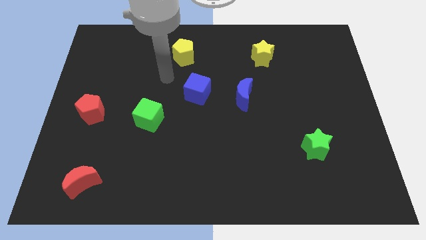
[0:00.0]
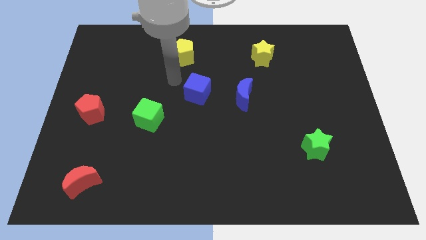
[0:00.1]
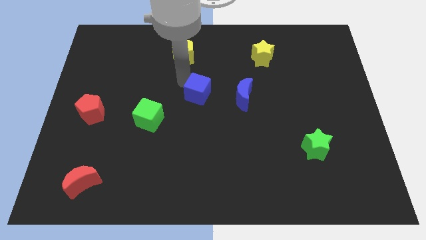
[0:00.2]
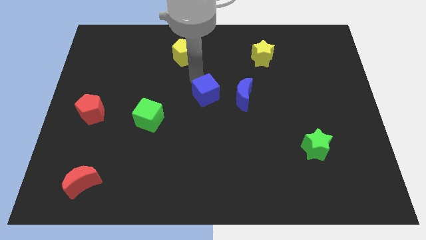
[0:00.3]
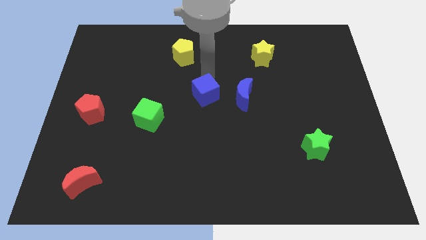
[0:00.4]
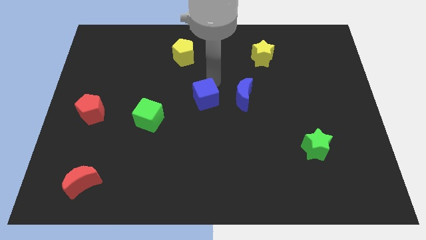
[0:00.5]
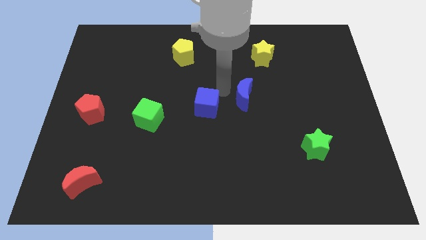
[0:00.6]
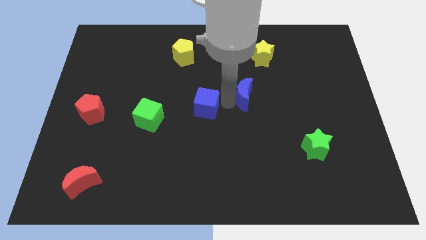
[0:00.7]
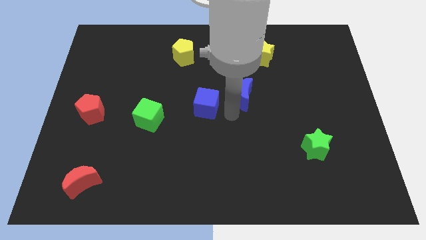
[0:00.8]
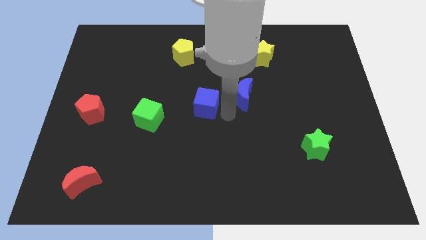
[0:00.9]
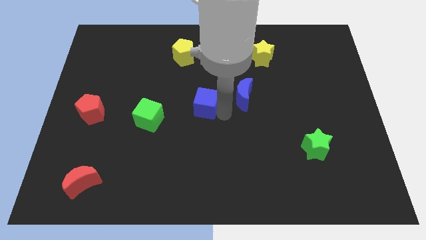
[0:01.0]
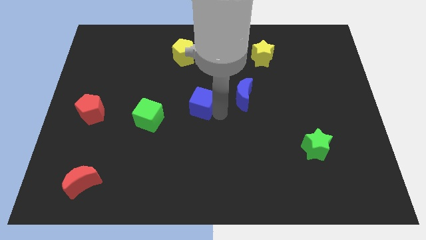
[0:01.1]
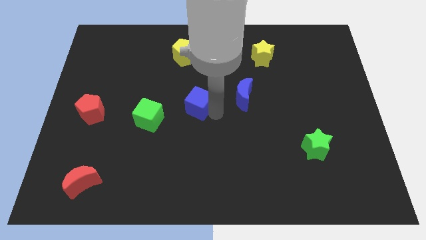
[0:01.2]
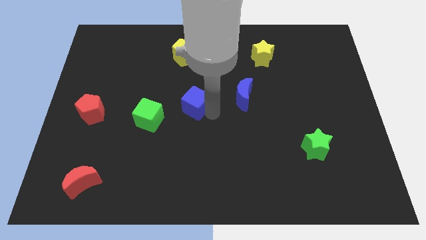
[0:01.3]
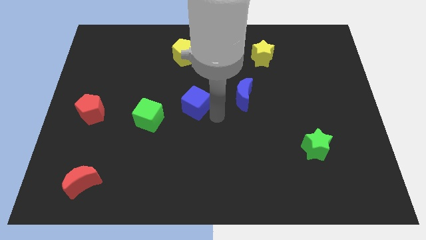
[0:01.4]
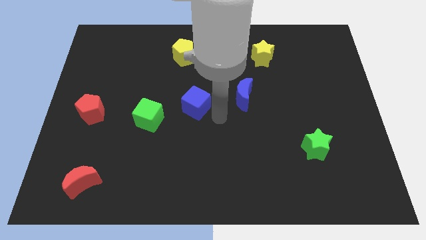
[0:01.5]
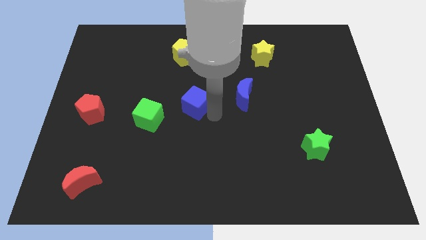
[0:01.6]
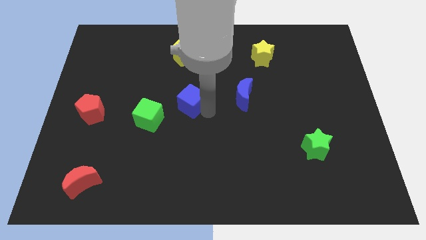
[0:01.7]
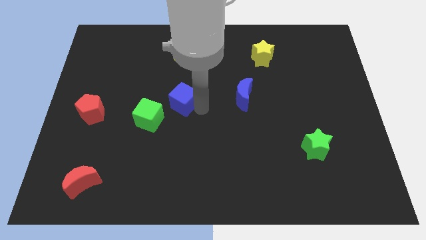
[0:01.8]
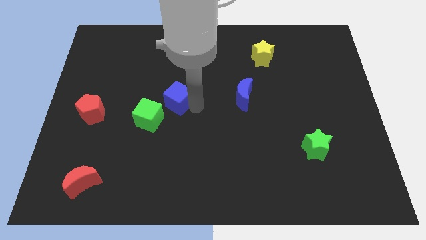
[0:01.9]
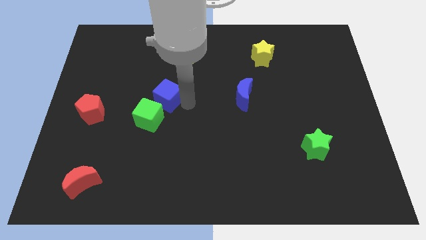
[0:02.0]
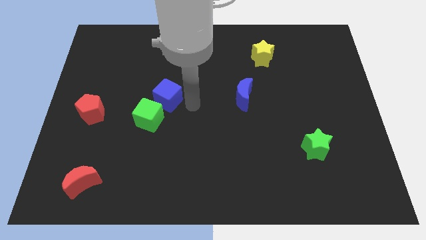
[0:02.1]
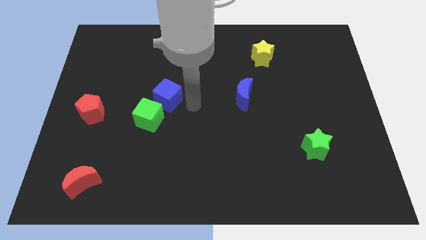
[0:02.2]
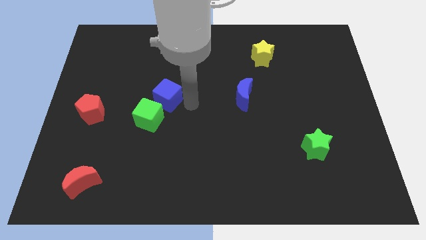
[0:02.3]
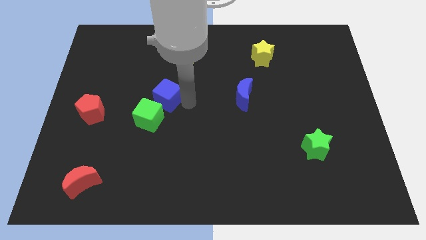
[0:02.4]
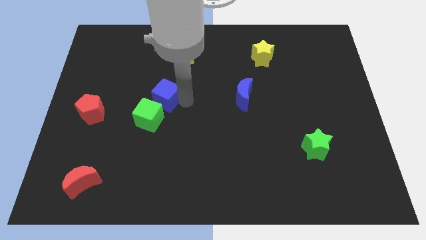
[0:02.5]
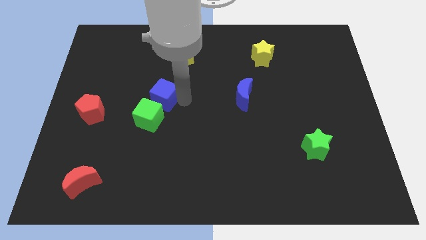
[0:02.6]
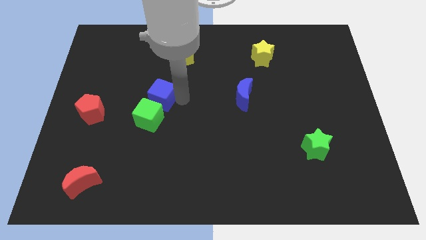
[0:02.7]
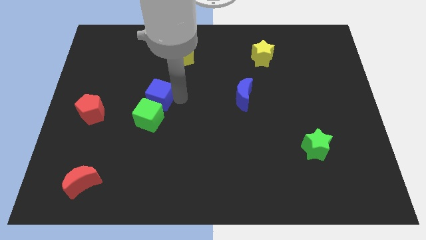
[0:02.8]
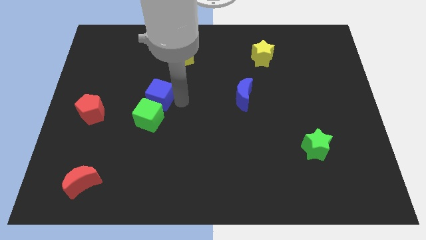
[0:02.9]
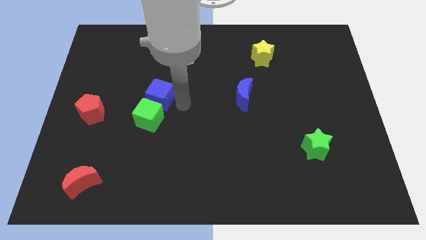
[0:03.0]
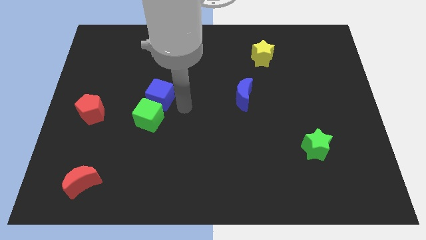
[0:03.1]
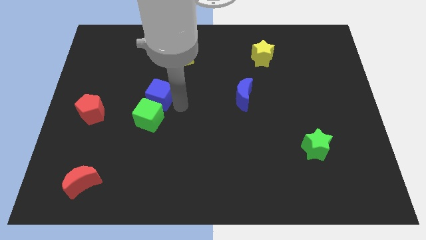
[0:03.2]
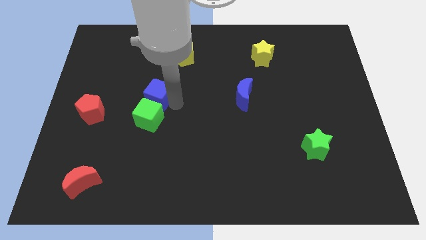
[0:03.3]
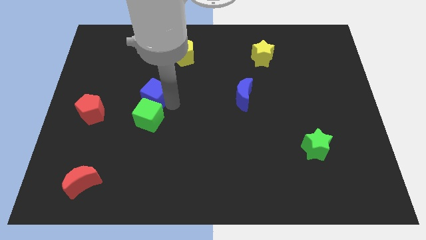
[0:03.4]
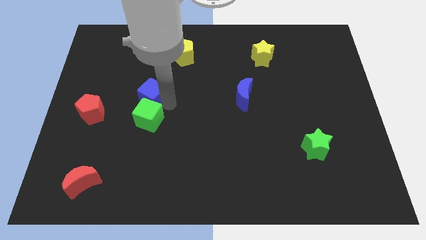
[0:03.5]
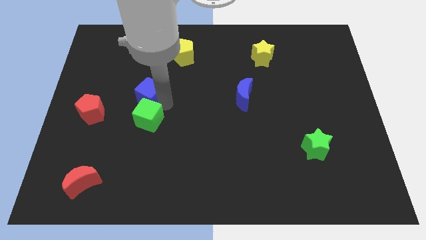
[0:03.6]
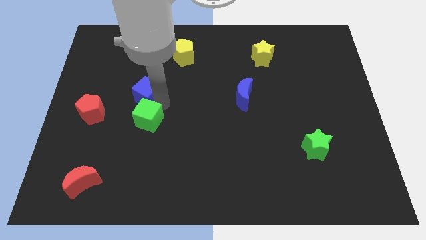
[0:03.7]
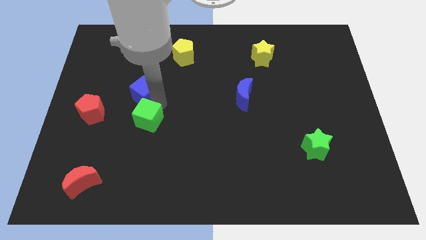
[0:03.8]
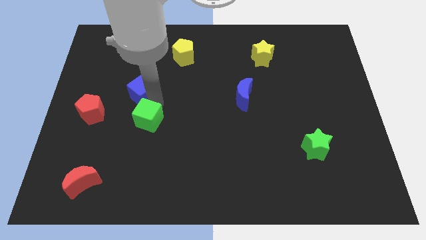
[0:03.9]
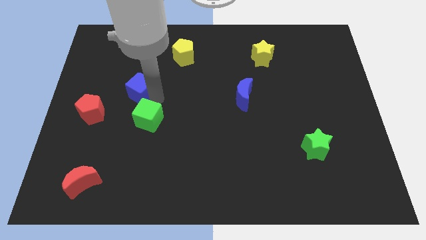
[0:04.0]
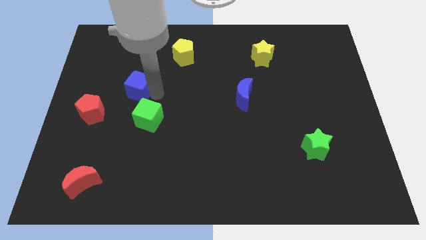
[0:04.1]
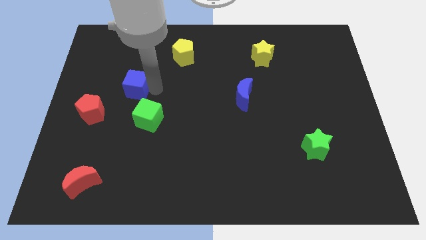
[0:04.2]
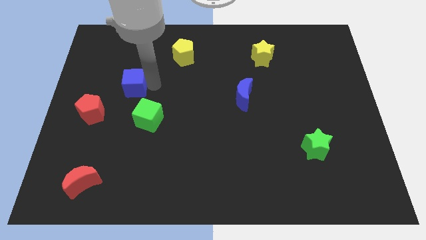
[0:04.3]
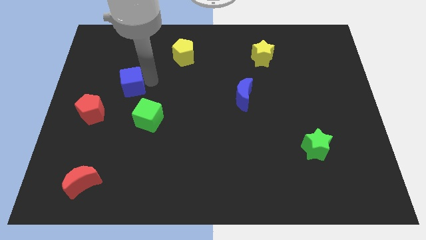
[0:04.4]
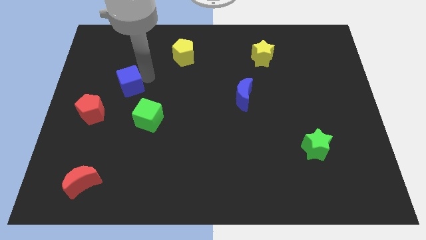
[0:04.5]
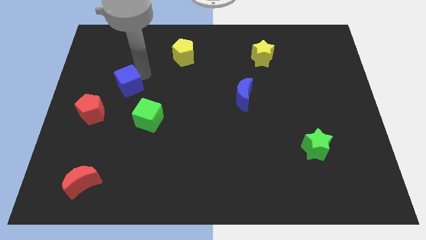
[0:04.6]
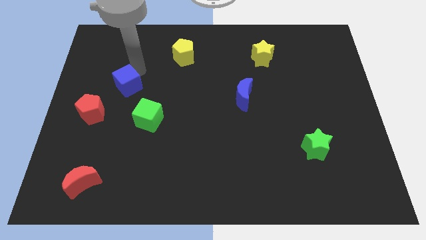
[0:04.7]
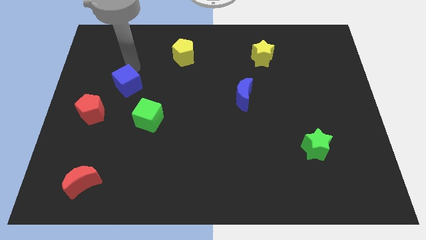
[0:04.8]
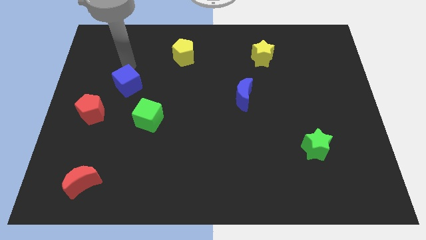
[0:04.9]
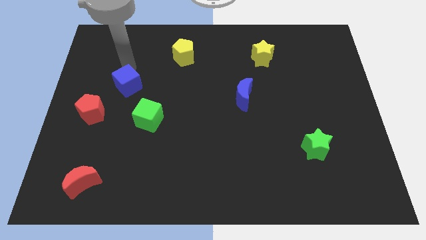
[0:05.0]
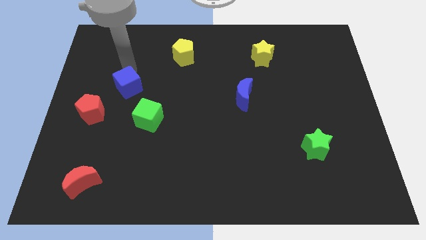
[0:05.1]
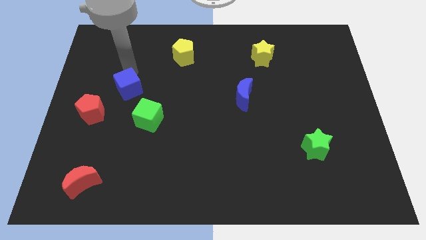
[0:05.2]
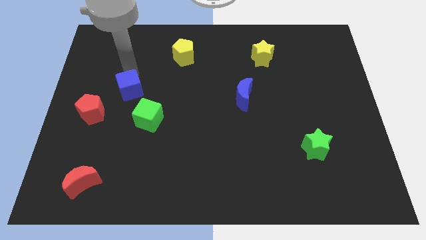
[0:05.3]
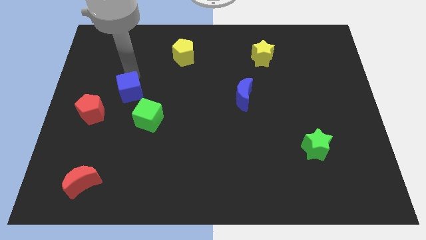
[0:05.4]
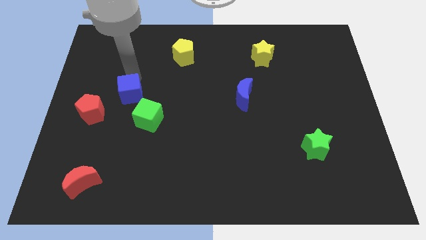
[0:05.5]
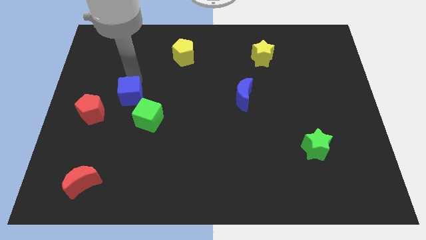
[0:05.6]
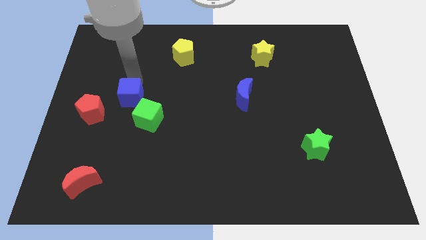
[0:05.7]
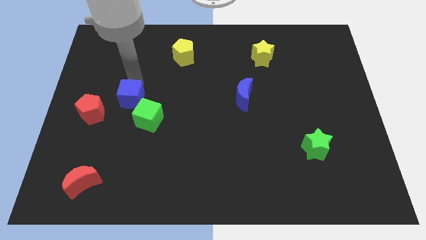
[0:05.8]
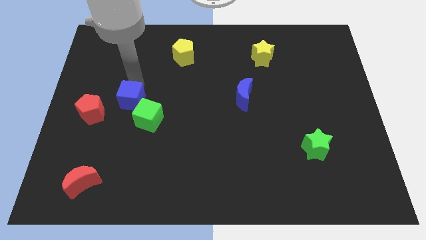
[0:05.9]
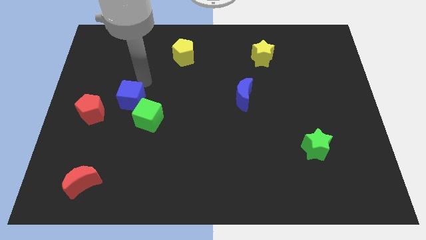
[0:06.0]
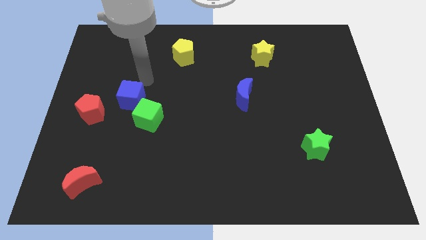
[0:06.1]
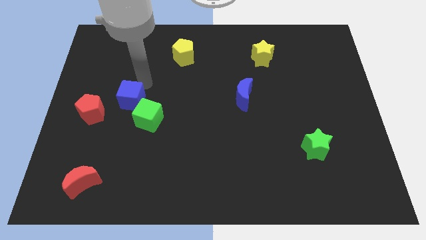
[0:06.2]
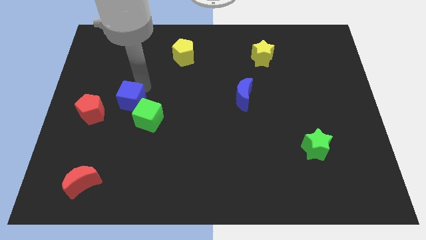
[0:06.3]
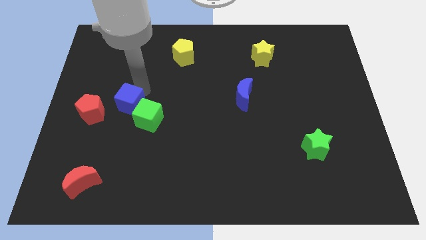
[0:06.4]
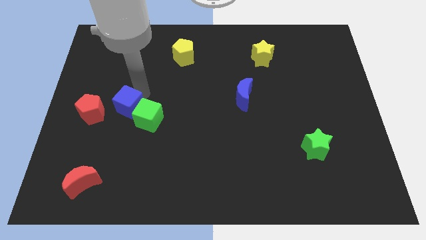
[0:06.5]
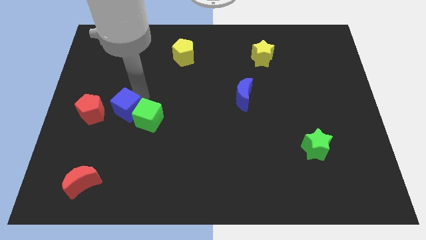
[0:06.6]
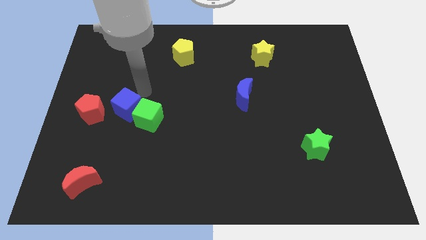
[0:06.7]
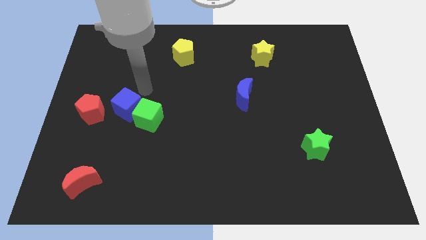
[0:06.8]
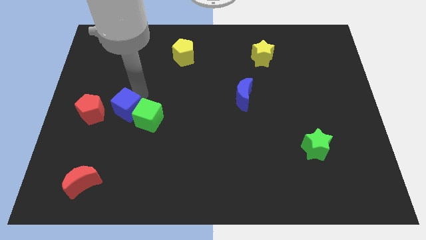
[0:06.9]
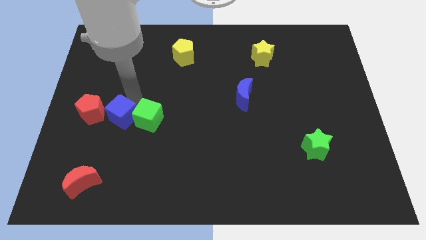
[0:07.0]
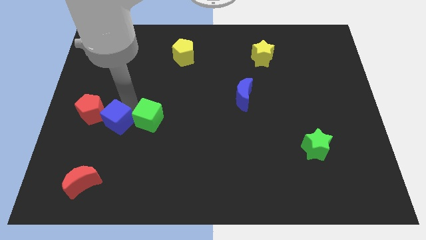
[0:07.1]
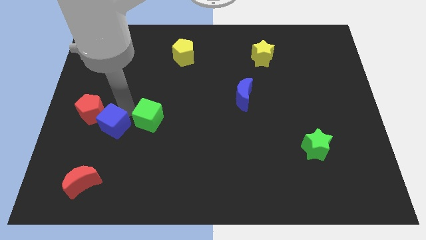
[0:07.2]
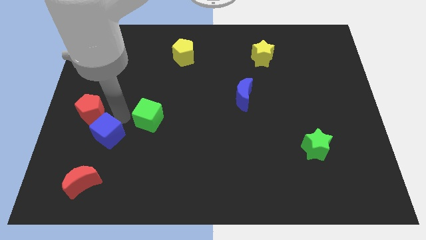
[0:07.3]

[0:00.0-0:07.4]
push the blue cube to the bottom side of the red pentagon
